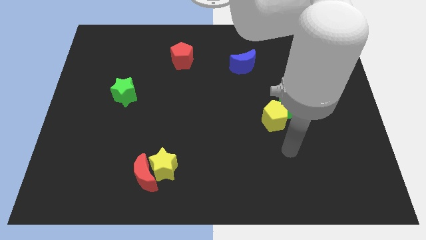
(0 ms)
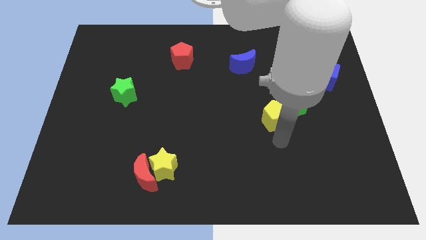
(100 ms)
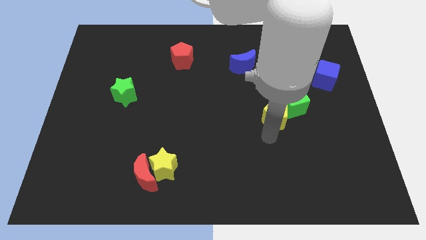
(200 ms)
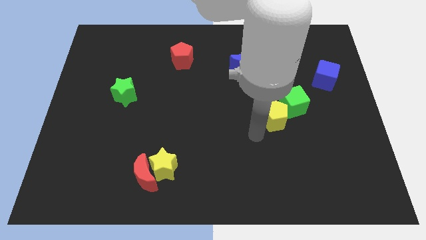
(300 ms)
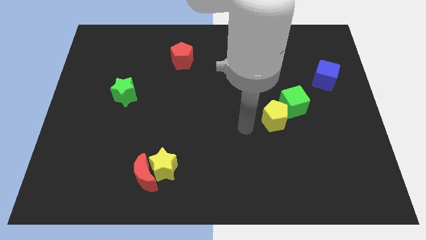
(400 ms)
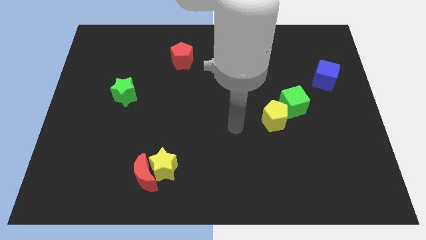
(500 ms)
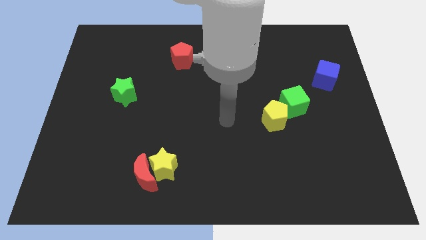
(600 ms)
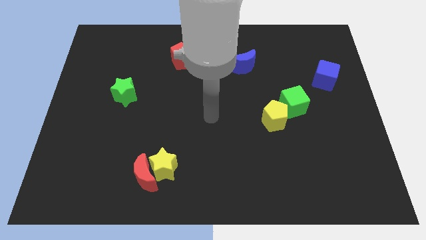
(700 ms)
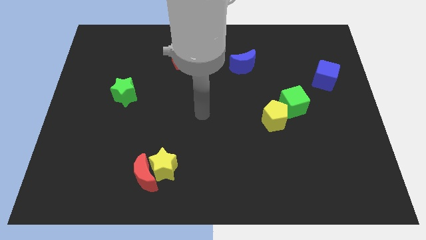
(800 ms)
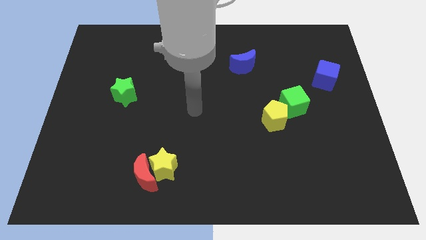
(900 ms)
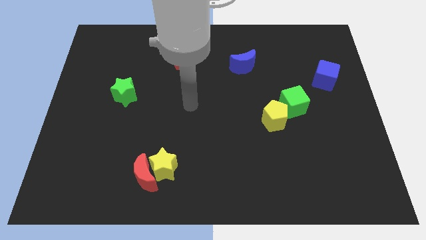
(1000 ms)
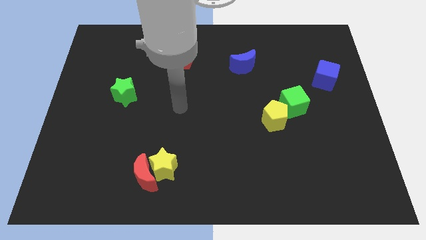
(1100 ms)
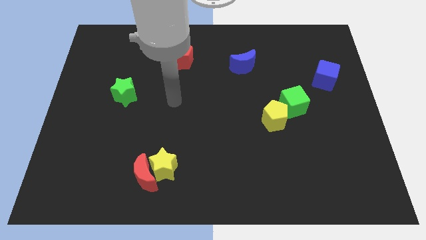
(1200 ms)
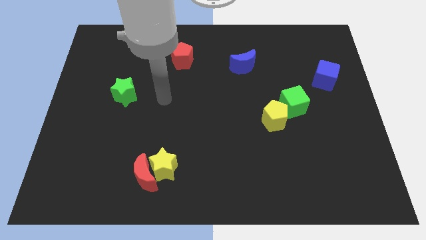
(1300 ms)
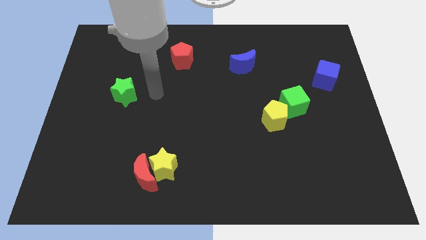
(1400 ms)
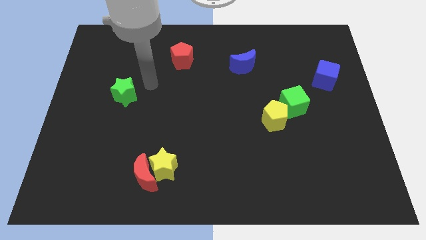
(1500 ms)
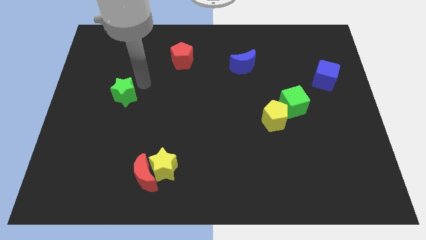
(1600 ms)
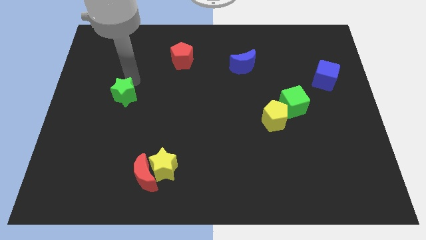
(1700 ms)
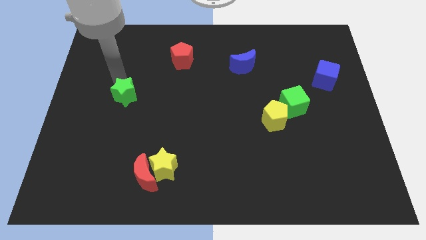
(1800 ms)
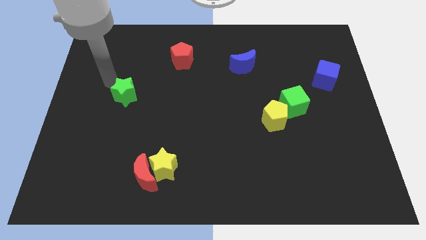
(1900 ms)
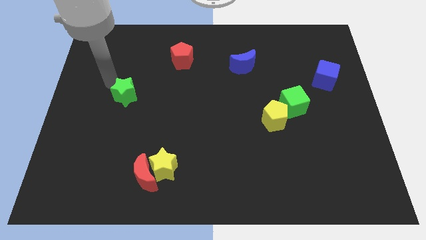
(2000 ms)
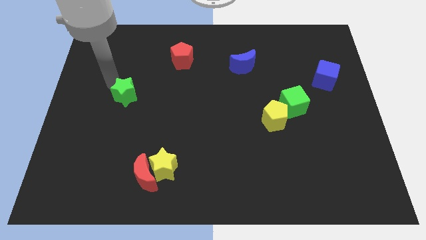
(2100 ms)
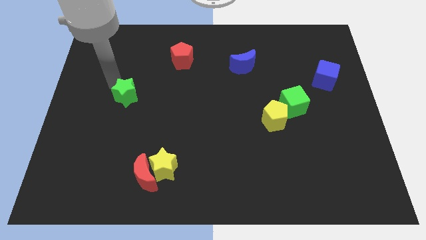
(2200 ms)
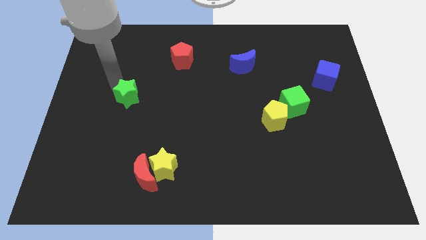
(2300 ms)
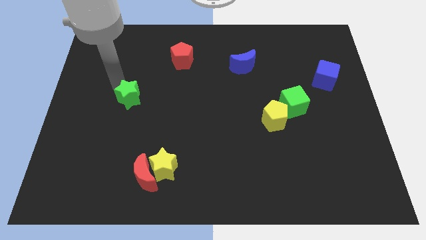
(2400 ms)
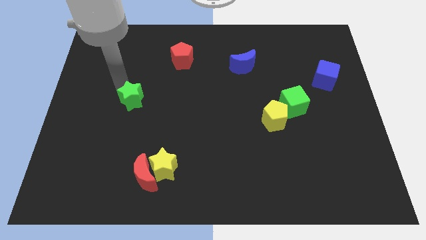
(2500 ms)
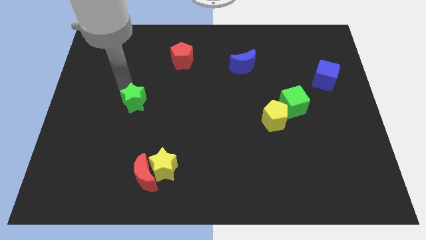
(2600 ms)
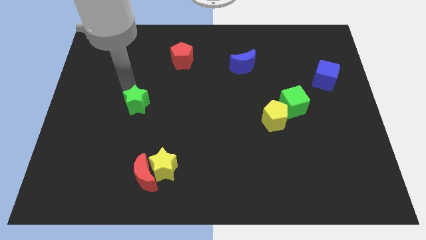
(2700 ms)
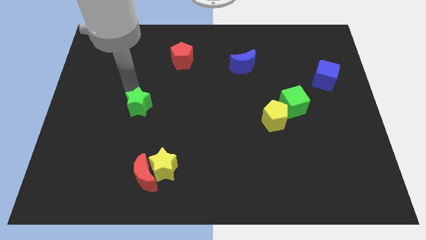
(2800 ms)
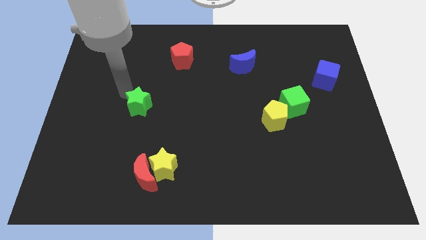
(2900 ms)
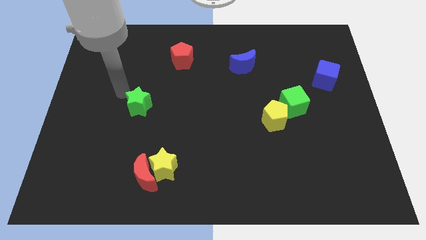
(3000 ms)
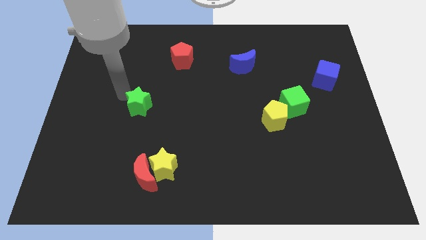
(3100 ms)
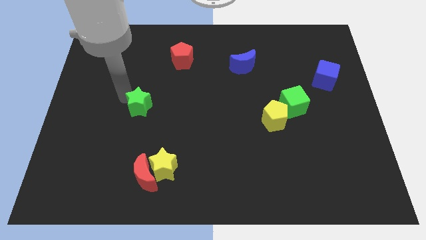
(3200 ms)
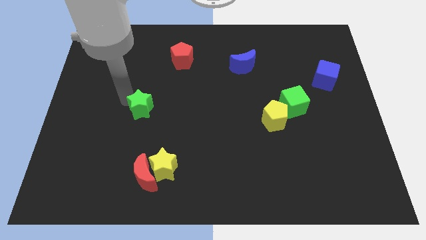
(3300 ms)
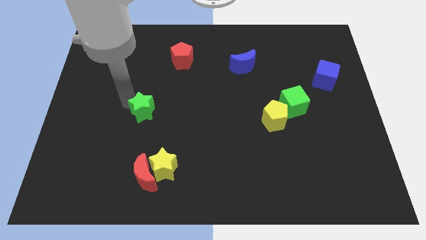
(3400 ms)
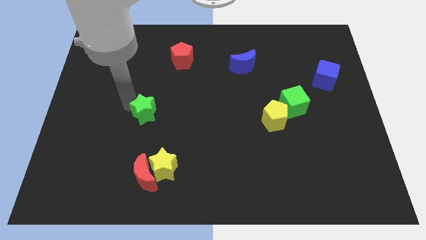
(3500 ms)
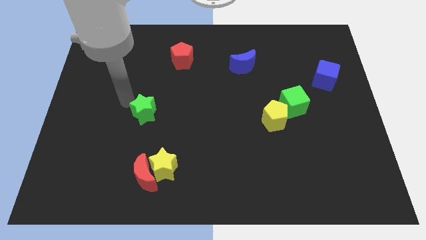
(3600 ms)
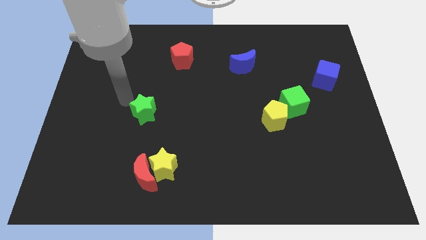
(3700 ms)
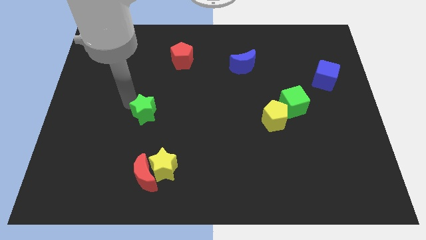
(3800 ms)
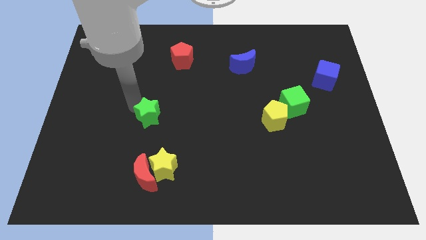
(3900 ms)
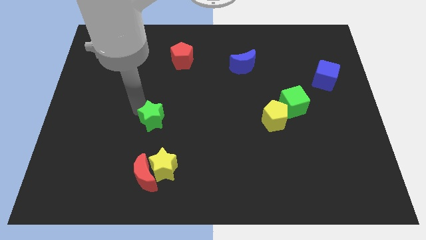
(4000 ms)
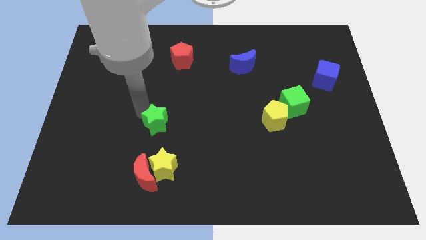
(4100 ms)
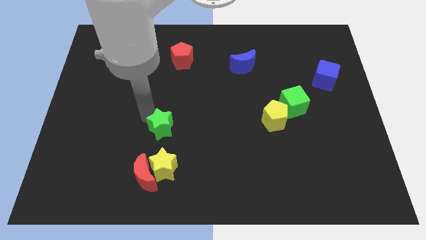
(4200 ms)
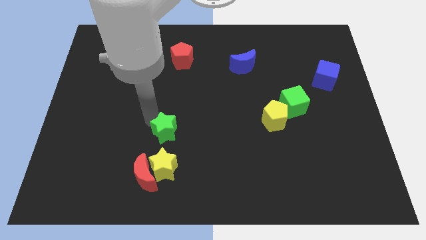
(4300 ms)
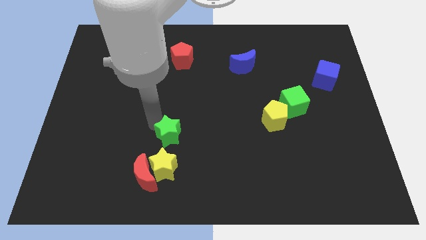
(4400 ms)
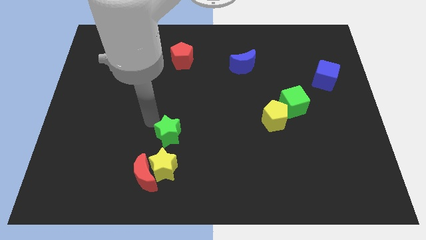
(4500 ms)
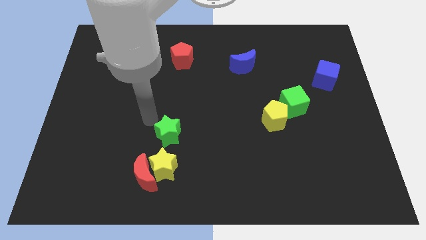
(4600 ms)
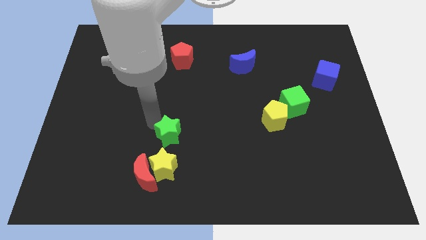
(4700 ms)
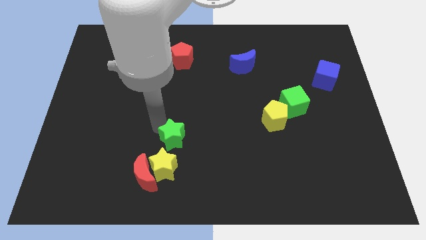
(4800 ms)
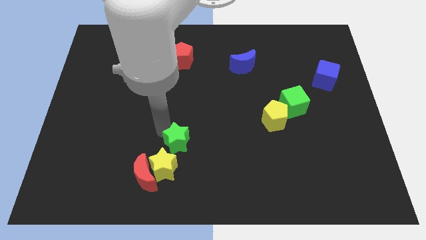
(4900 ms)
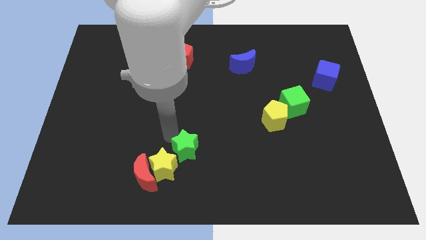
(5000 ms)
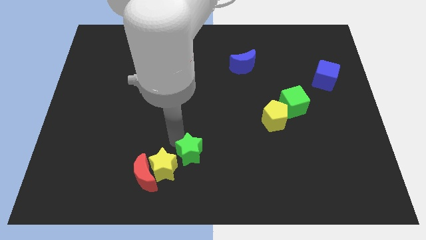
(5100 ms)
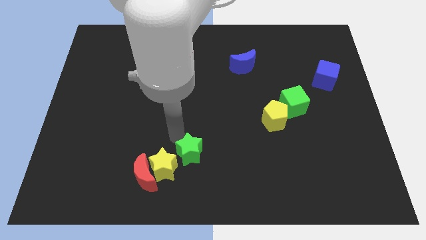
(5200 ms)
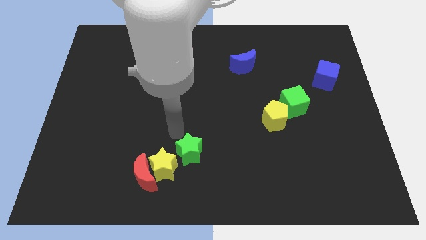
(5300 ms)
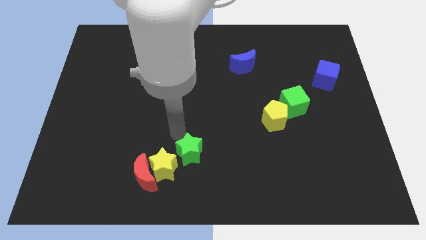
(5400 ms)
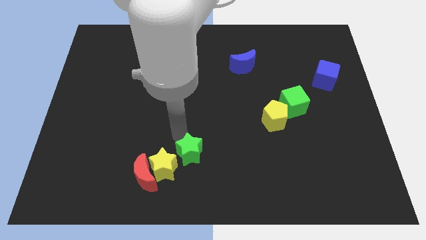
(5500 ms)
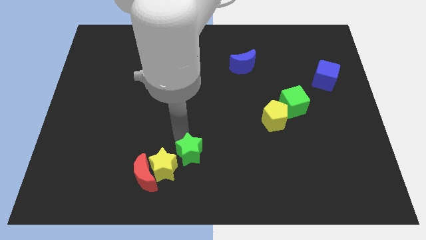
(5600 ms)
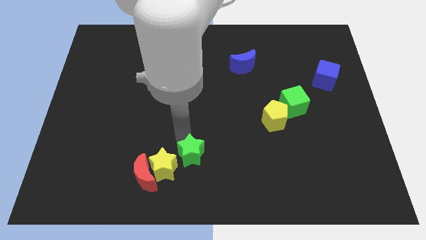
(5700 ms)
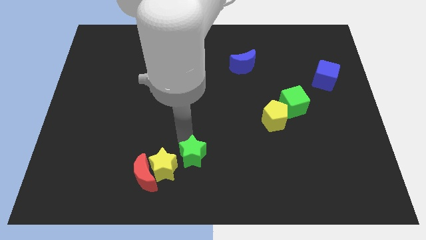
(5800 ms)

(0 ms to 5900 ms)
put the green star to the bottom
